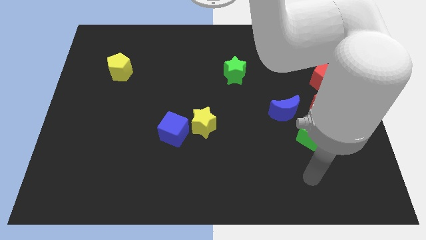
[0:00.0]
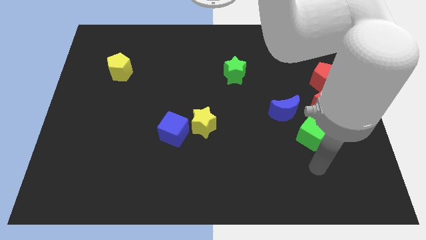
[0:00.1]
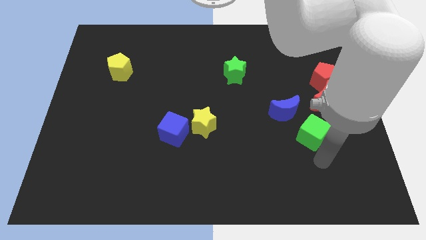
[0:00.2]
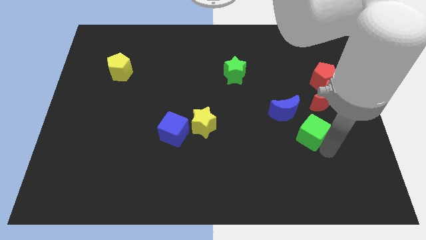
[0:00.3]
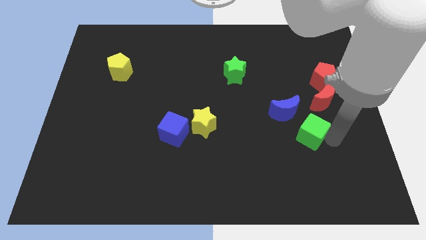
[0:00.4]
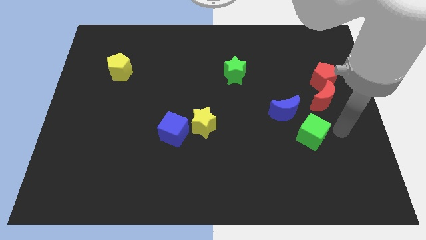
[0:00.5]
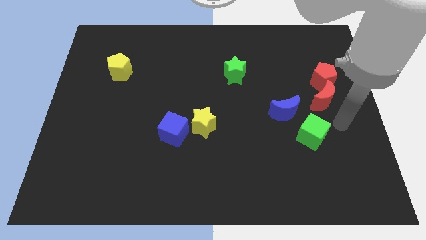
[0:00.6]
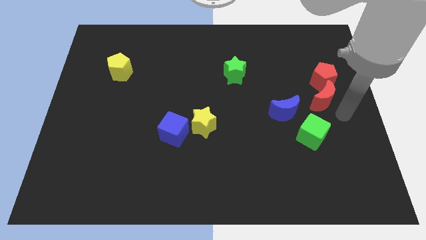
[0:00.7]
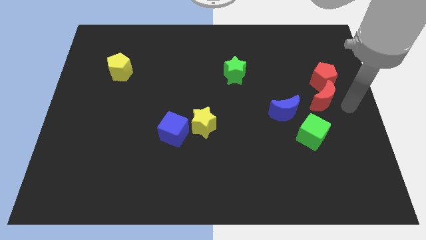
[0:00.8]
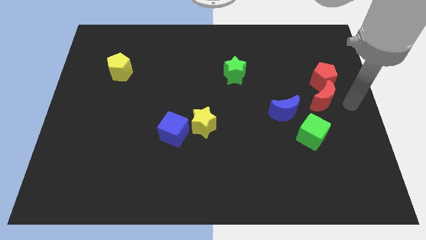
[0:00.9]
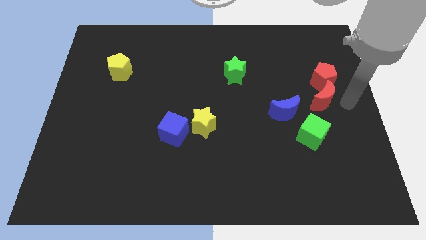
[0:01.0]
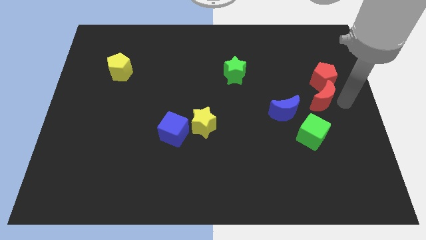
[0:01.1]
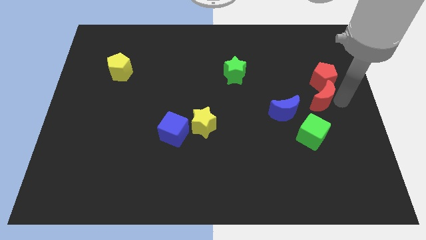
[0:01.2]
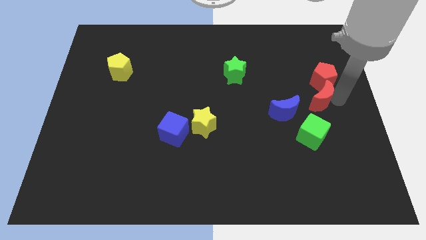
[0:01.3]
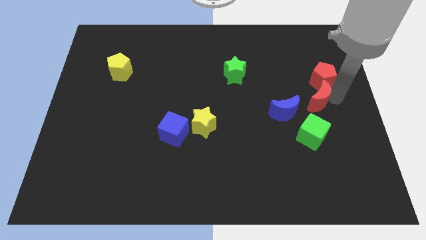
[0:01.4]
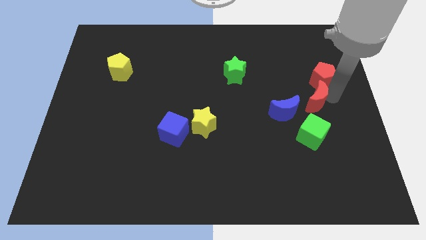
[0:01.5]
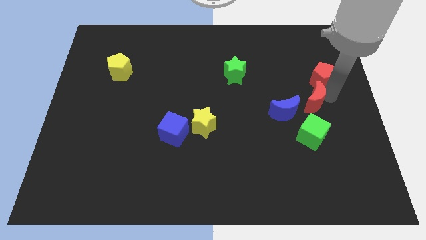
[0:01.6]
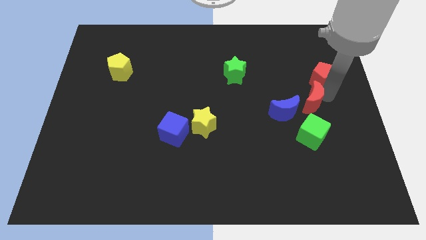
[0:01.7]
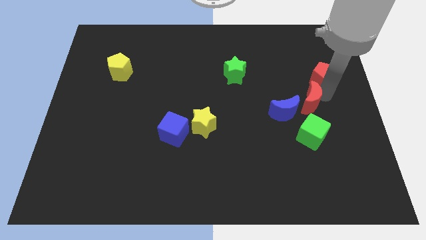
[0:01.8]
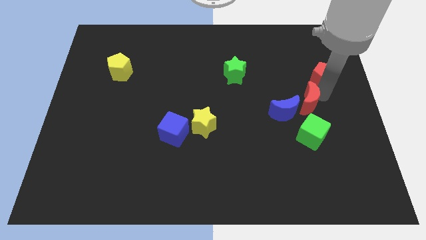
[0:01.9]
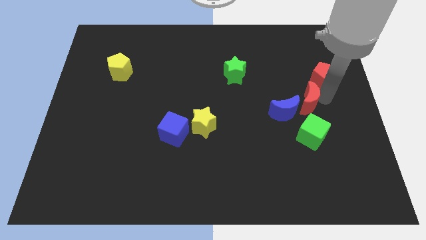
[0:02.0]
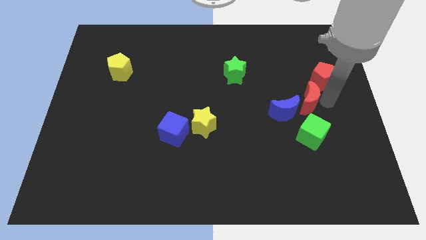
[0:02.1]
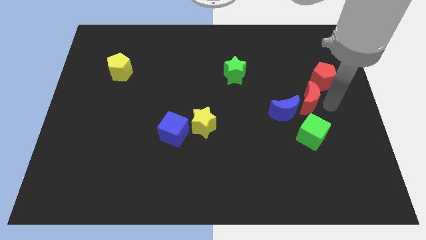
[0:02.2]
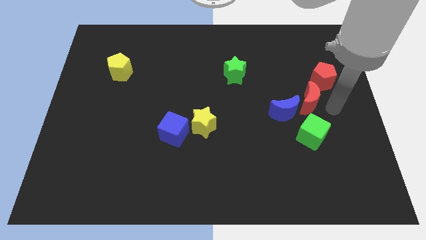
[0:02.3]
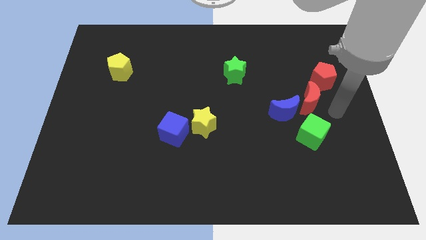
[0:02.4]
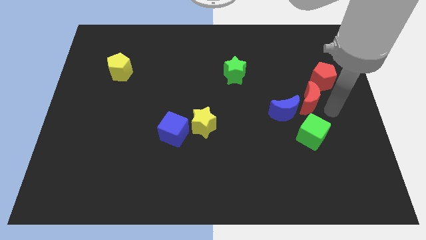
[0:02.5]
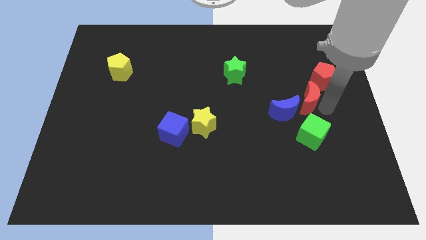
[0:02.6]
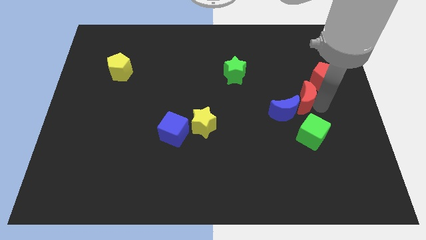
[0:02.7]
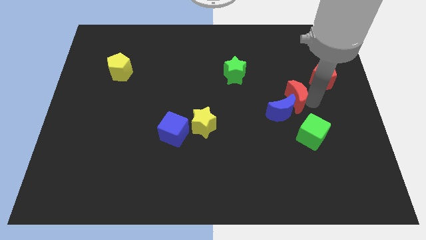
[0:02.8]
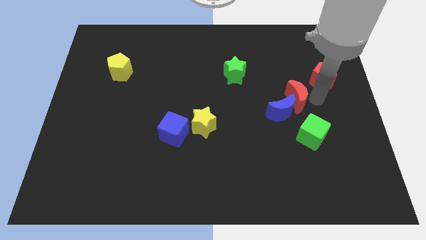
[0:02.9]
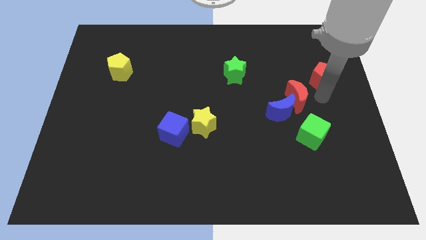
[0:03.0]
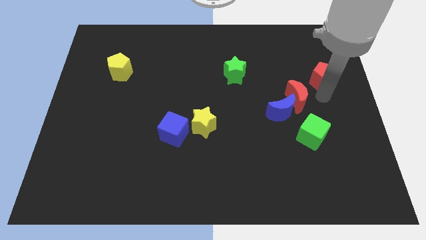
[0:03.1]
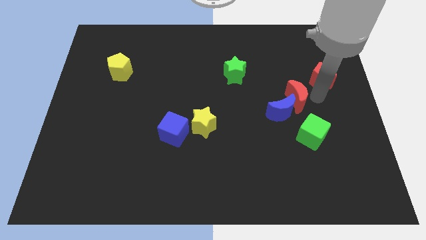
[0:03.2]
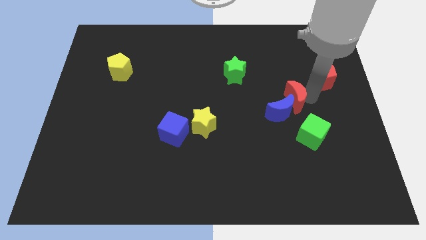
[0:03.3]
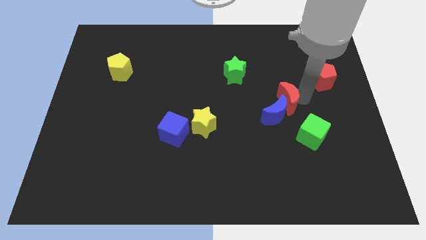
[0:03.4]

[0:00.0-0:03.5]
slide the red moon a little left

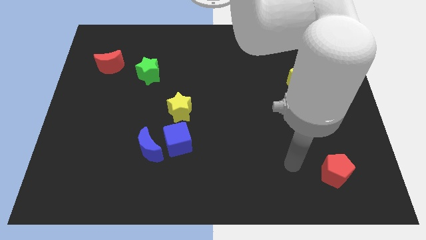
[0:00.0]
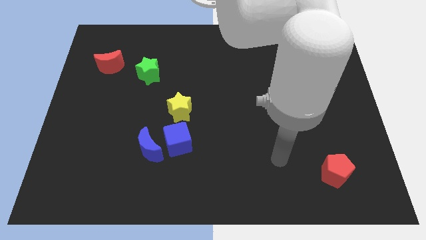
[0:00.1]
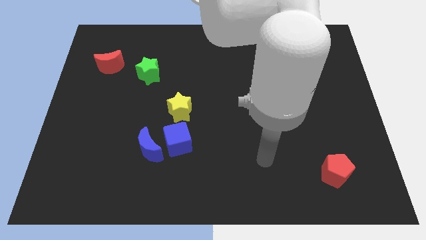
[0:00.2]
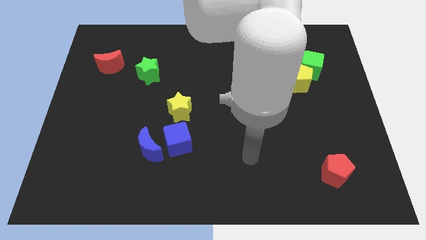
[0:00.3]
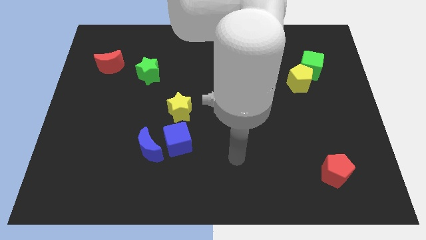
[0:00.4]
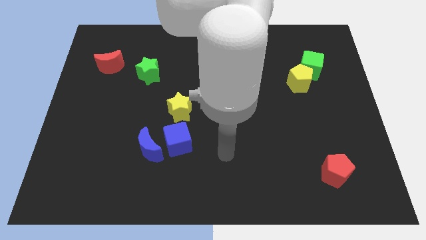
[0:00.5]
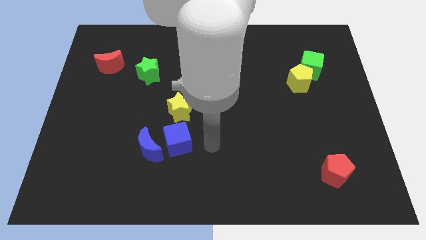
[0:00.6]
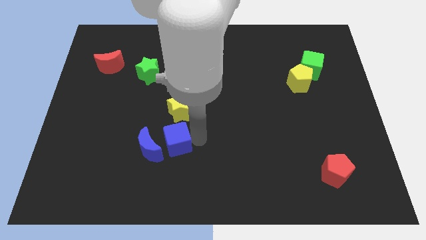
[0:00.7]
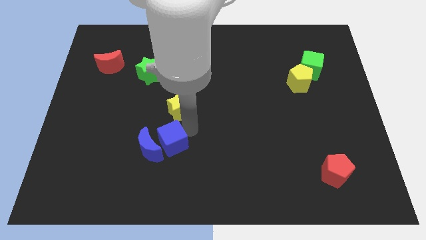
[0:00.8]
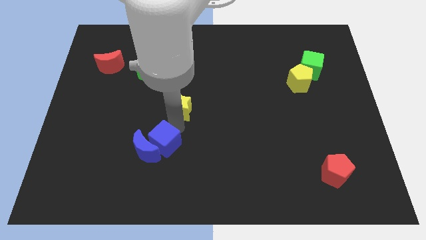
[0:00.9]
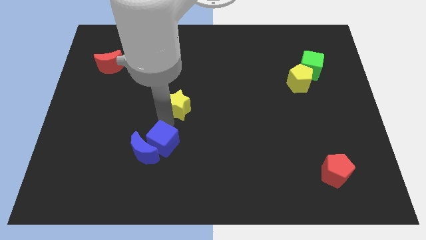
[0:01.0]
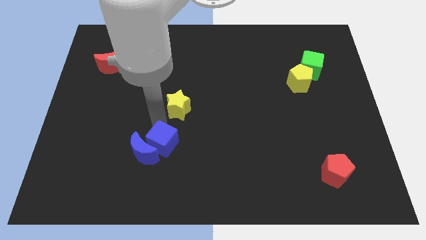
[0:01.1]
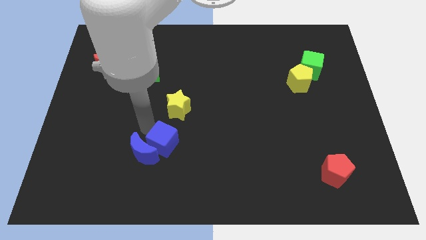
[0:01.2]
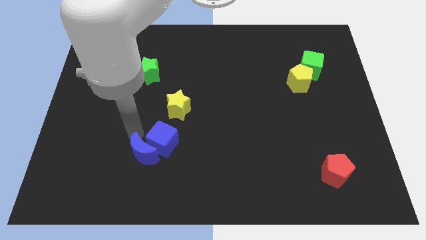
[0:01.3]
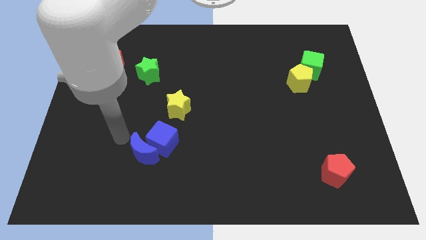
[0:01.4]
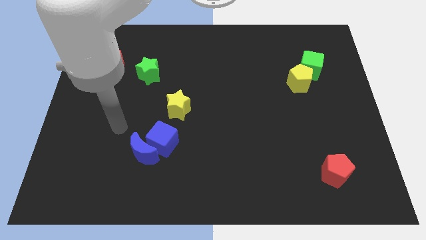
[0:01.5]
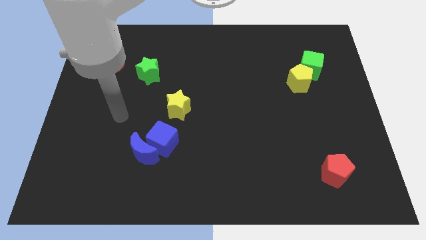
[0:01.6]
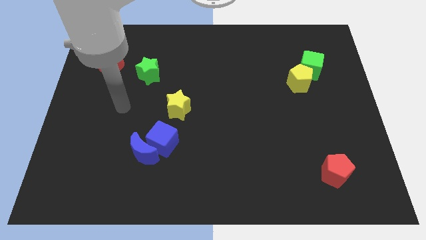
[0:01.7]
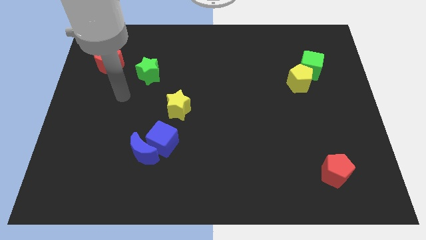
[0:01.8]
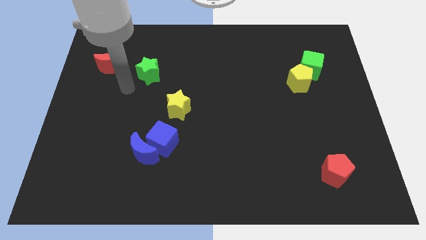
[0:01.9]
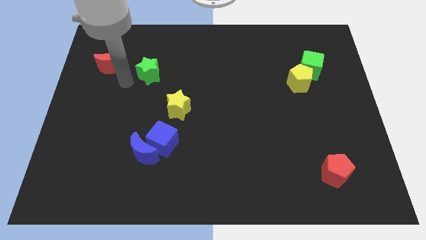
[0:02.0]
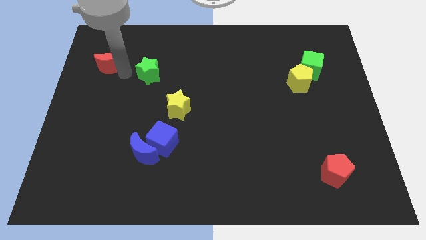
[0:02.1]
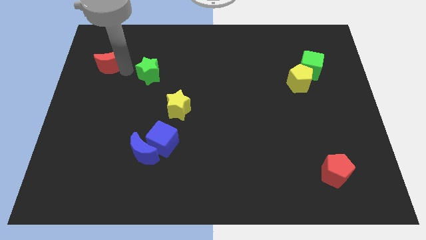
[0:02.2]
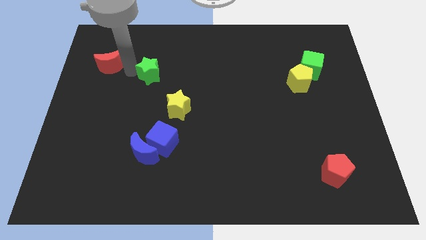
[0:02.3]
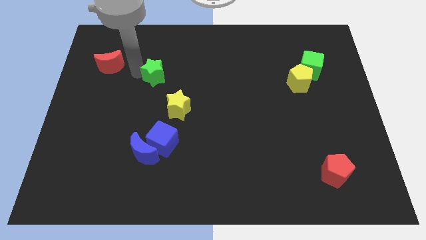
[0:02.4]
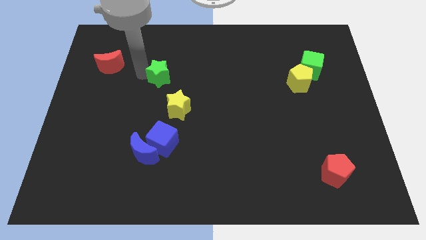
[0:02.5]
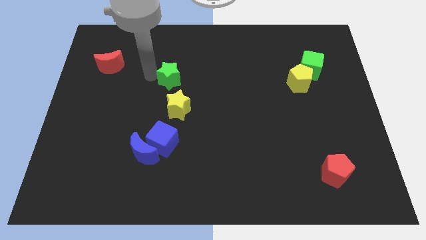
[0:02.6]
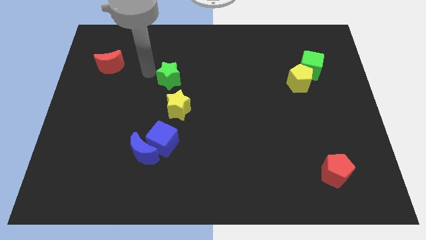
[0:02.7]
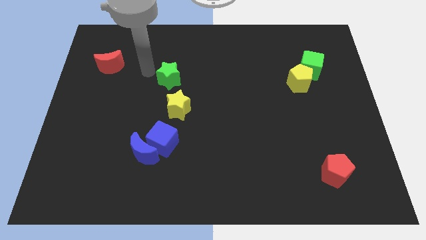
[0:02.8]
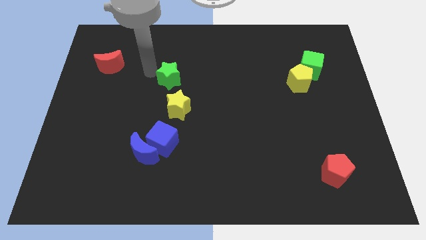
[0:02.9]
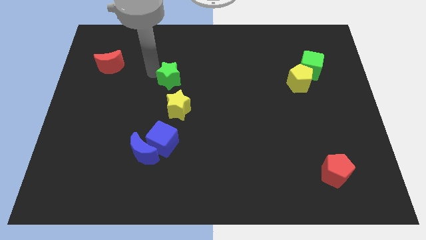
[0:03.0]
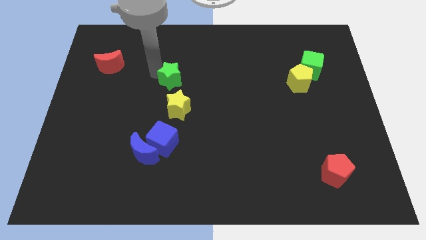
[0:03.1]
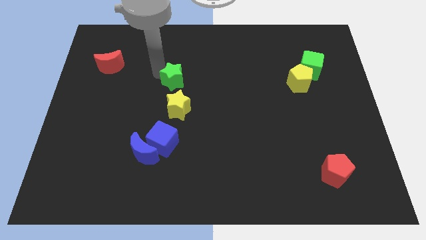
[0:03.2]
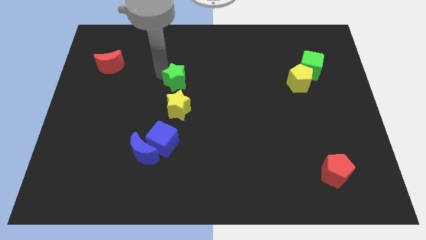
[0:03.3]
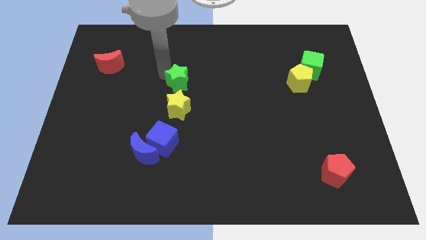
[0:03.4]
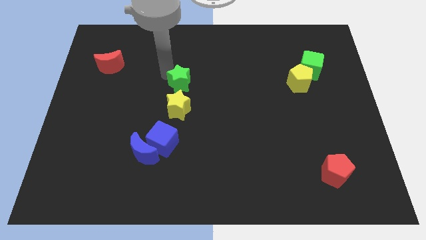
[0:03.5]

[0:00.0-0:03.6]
slide the green star a bit down and right

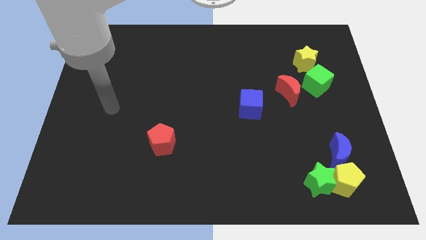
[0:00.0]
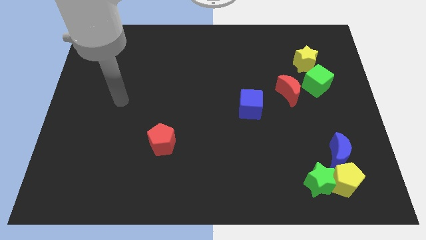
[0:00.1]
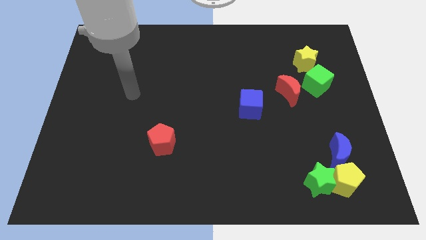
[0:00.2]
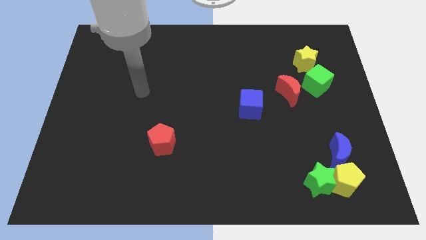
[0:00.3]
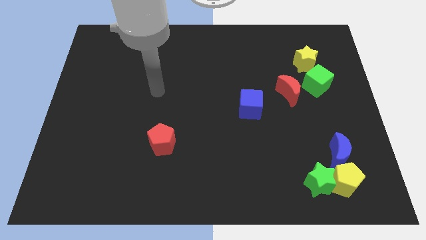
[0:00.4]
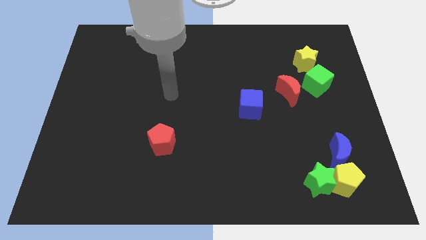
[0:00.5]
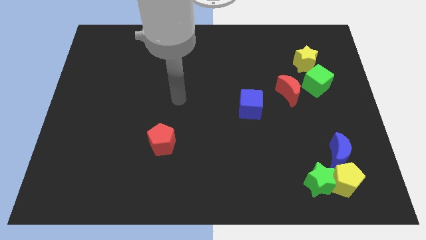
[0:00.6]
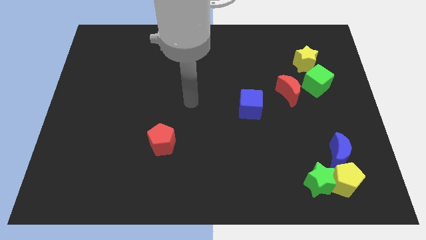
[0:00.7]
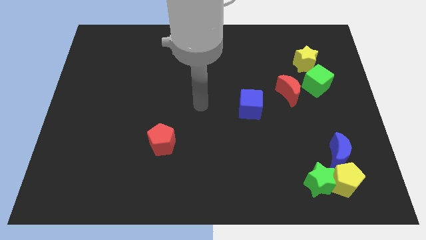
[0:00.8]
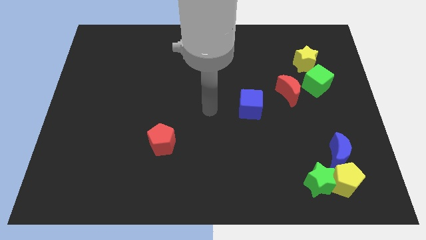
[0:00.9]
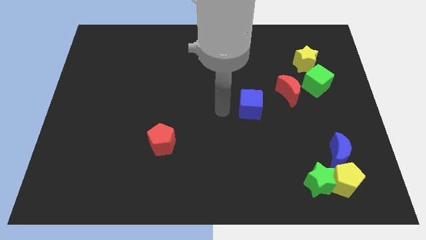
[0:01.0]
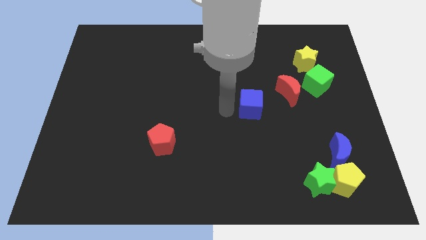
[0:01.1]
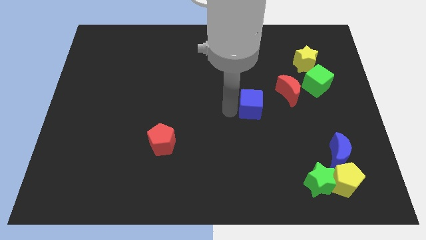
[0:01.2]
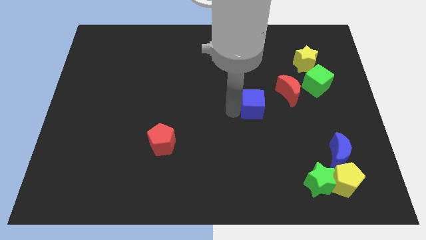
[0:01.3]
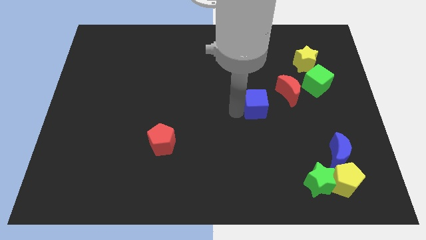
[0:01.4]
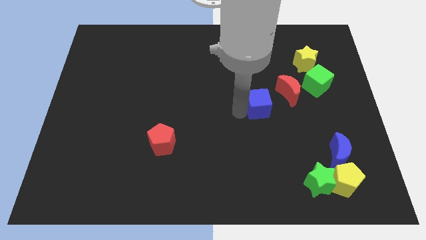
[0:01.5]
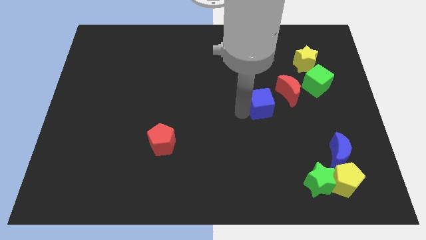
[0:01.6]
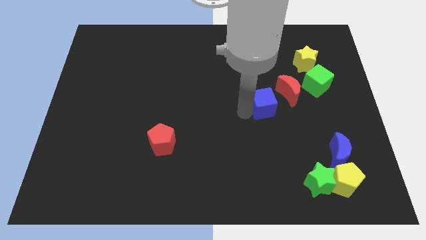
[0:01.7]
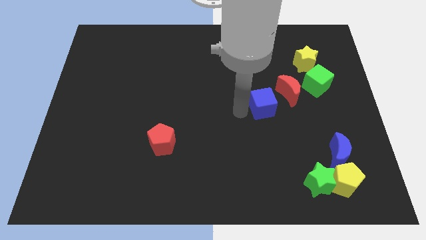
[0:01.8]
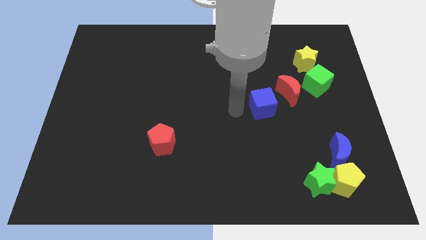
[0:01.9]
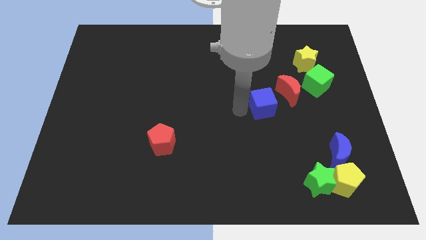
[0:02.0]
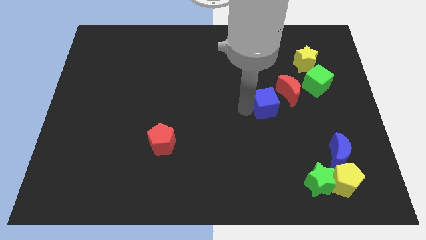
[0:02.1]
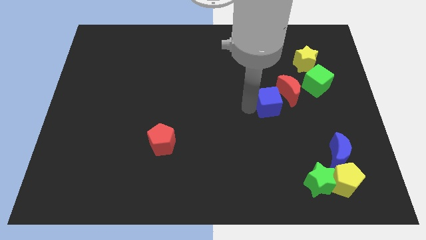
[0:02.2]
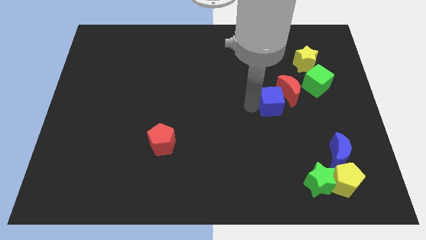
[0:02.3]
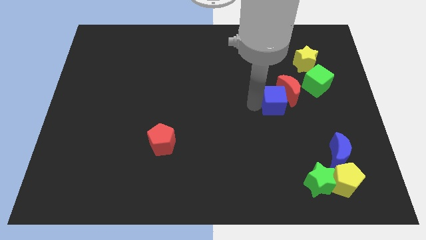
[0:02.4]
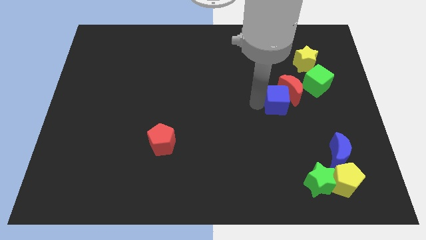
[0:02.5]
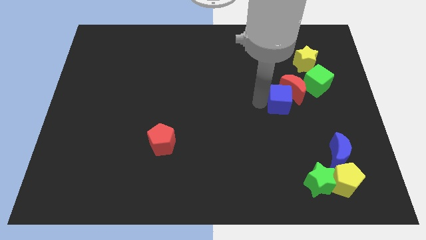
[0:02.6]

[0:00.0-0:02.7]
push the blue cube slightly right
